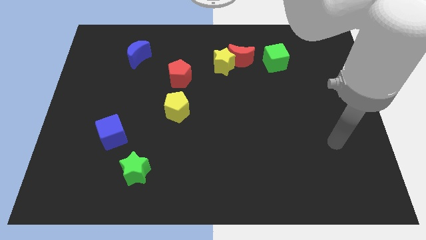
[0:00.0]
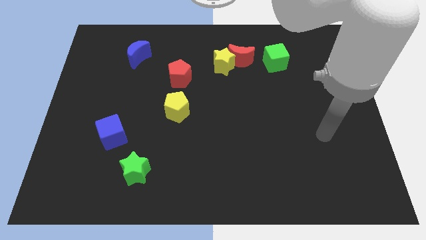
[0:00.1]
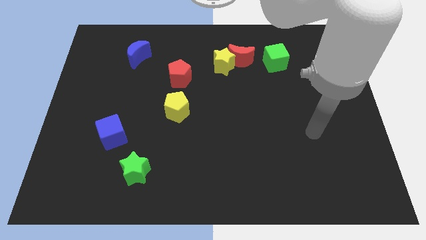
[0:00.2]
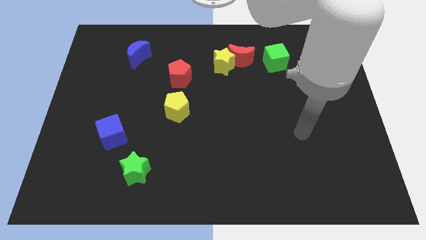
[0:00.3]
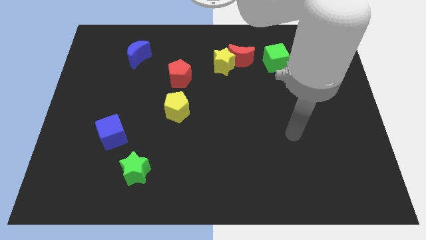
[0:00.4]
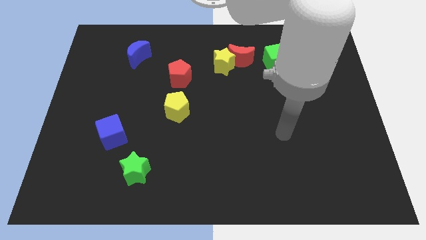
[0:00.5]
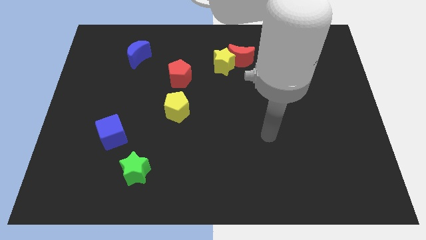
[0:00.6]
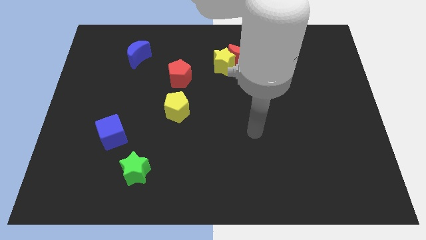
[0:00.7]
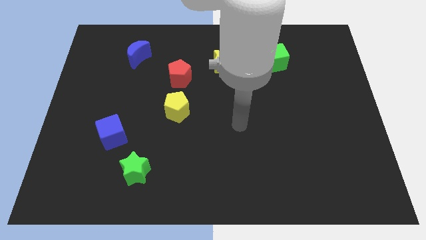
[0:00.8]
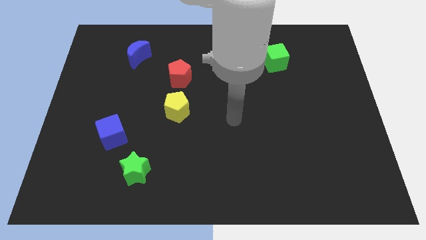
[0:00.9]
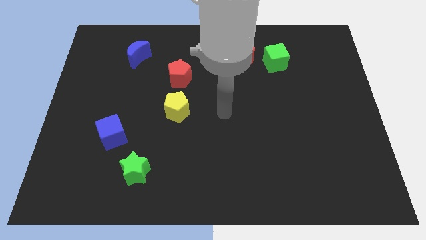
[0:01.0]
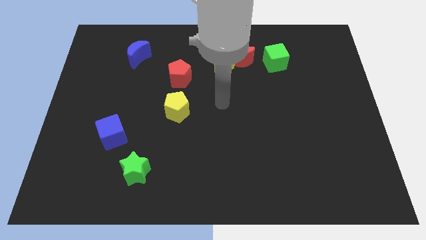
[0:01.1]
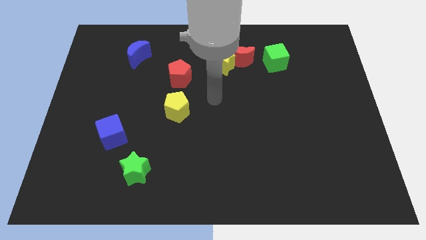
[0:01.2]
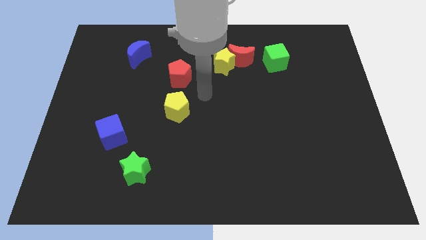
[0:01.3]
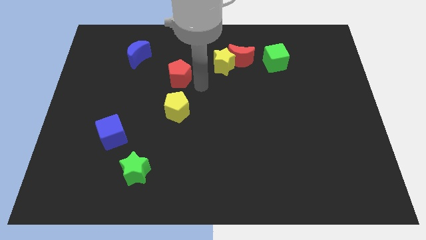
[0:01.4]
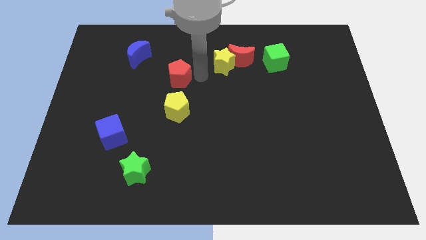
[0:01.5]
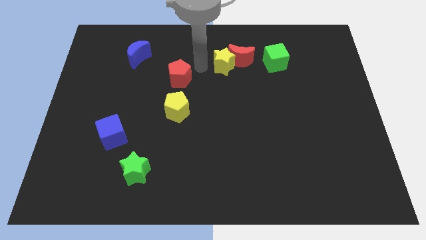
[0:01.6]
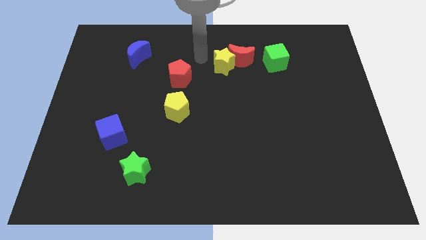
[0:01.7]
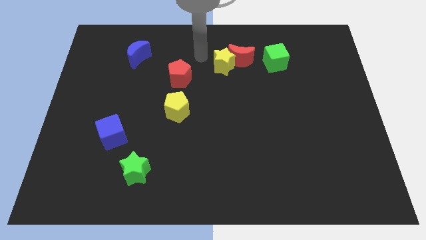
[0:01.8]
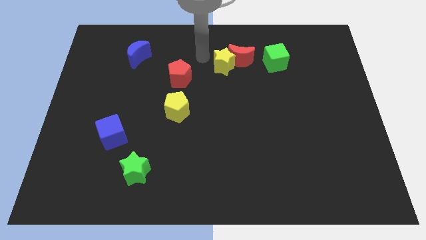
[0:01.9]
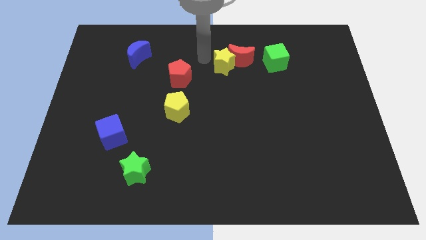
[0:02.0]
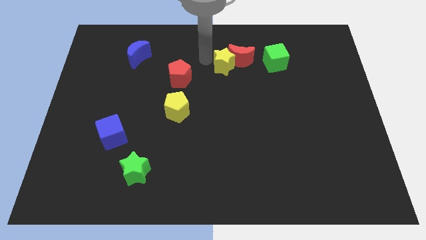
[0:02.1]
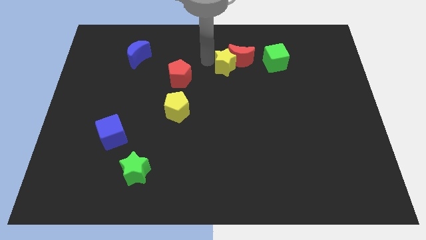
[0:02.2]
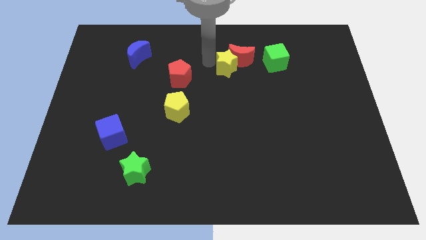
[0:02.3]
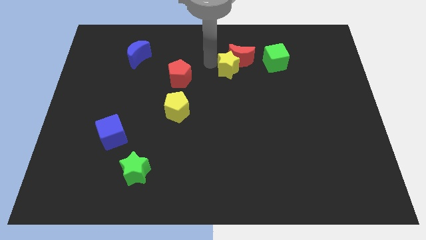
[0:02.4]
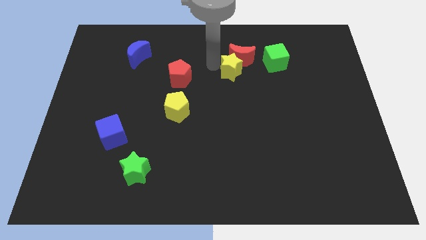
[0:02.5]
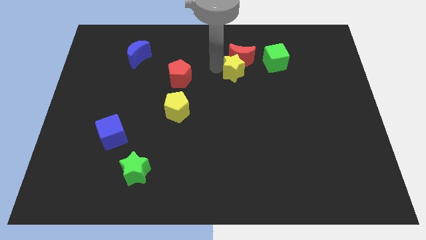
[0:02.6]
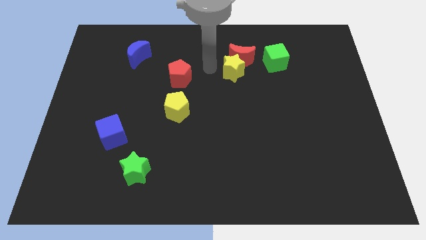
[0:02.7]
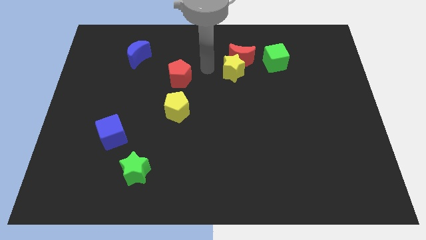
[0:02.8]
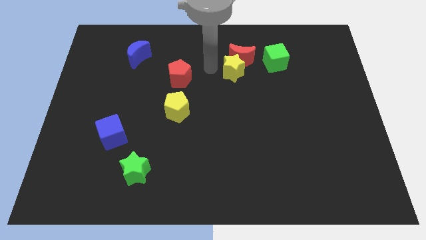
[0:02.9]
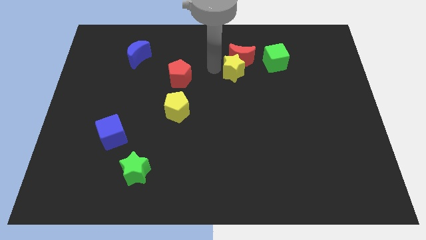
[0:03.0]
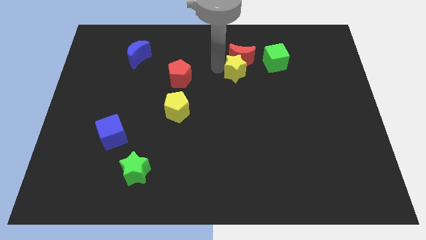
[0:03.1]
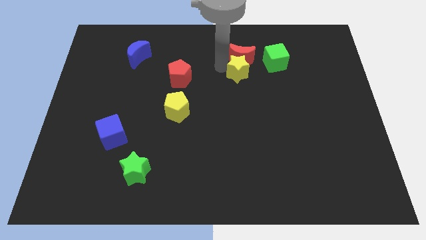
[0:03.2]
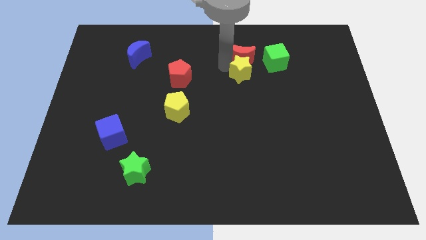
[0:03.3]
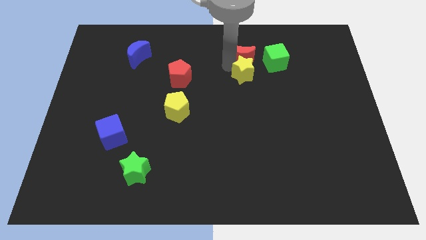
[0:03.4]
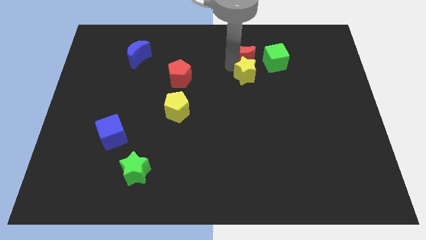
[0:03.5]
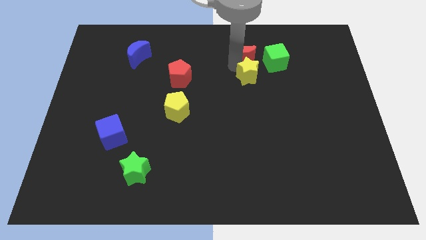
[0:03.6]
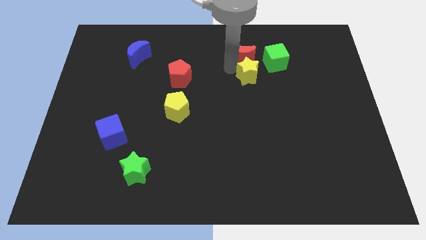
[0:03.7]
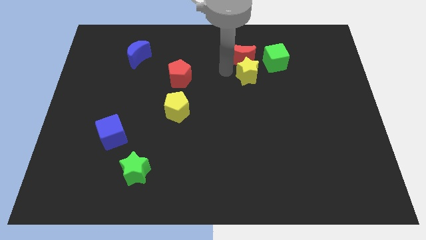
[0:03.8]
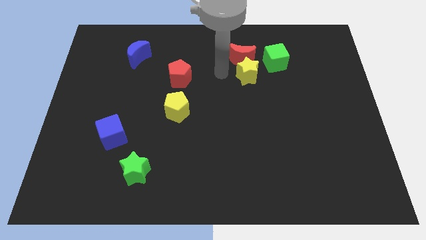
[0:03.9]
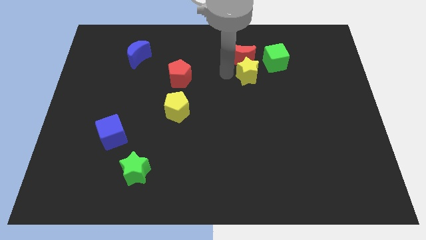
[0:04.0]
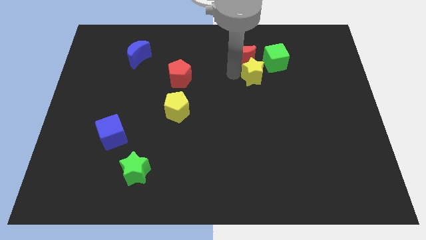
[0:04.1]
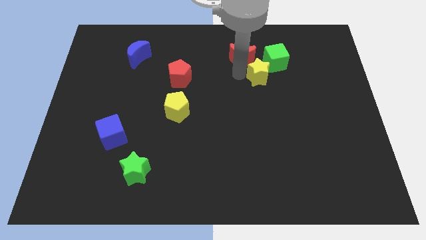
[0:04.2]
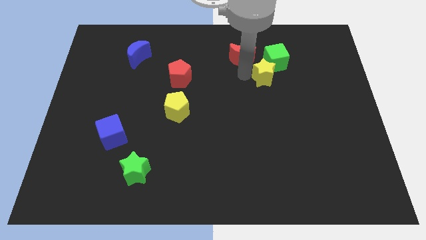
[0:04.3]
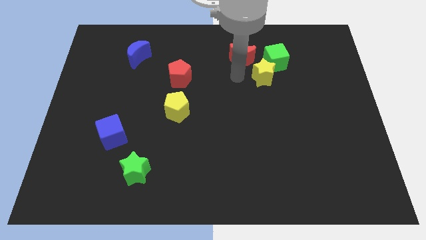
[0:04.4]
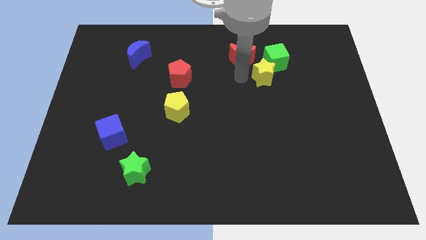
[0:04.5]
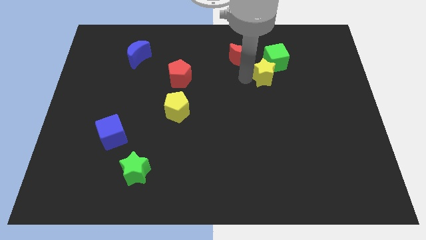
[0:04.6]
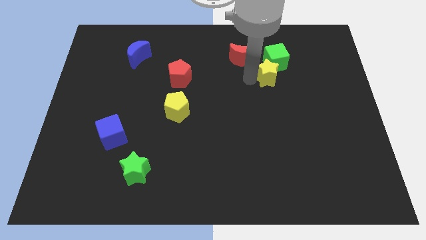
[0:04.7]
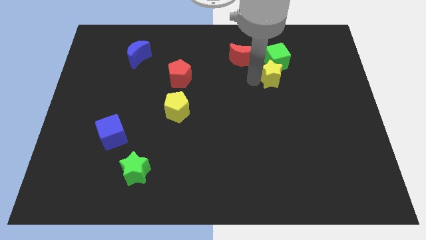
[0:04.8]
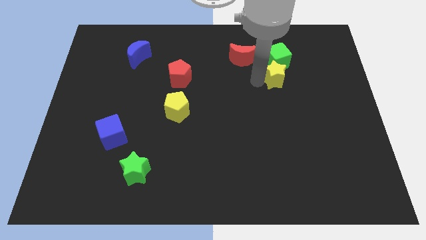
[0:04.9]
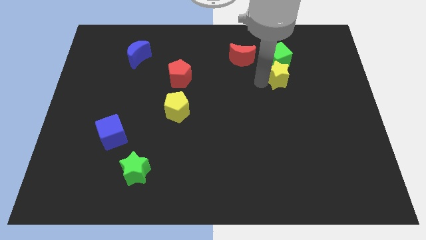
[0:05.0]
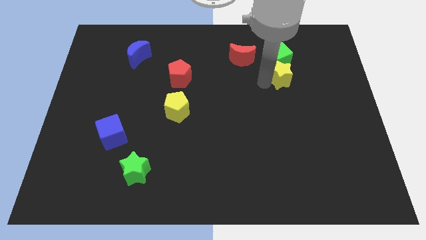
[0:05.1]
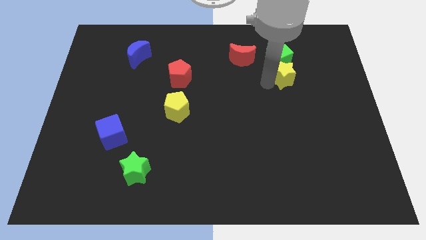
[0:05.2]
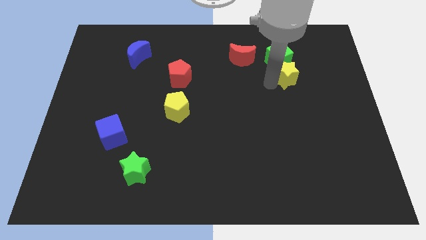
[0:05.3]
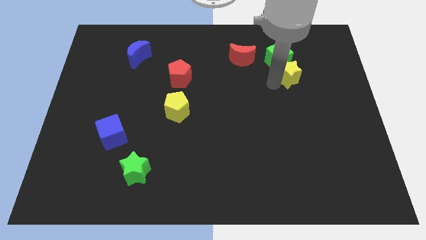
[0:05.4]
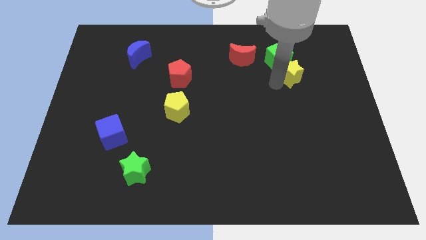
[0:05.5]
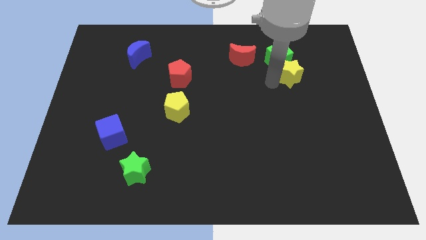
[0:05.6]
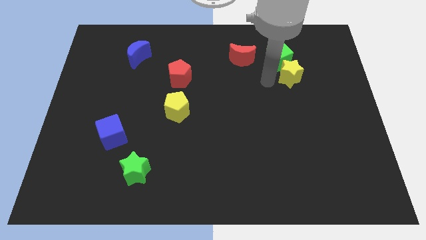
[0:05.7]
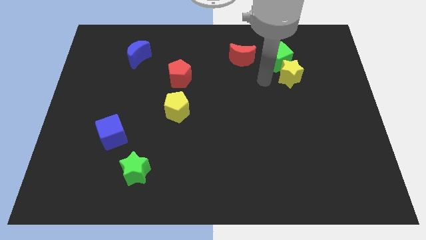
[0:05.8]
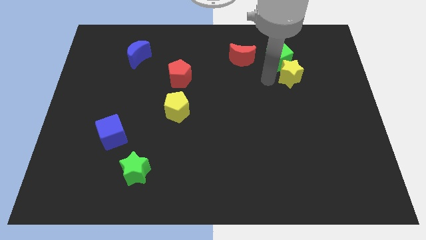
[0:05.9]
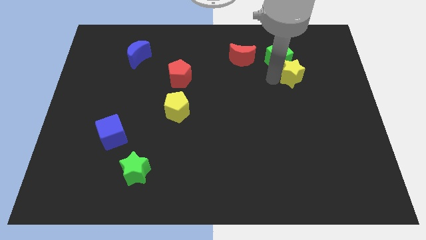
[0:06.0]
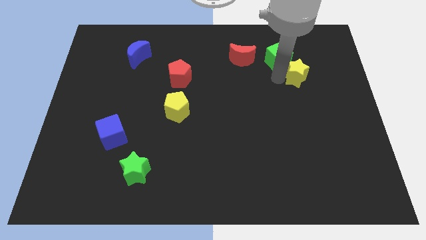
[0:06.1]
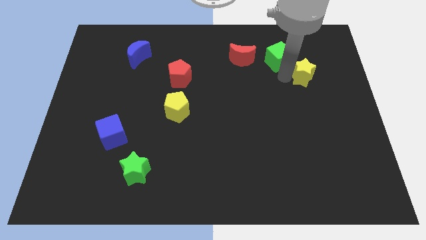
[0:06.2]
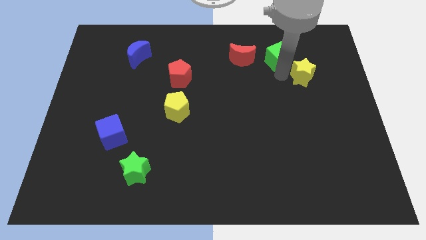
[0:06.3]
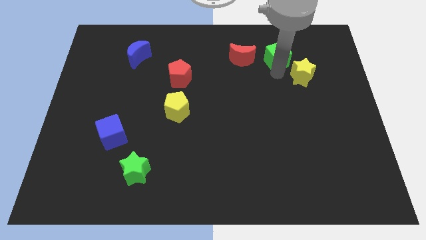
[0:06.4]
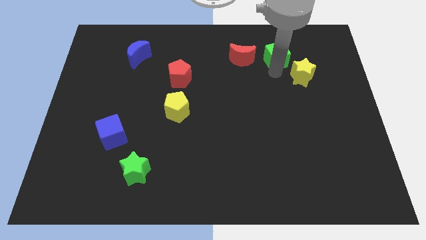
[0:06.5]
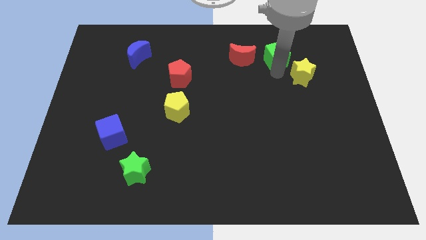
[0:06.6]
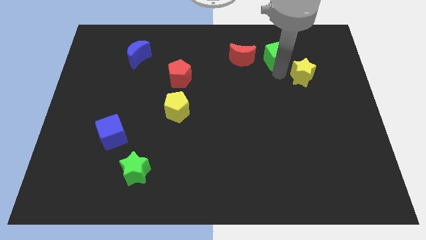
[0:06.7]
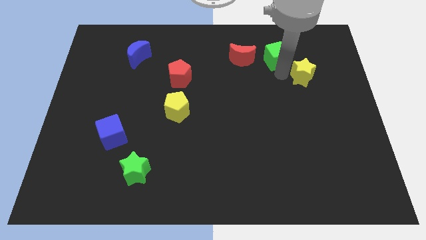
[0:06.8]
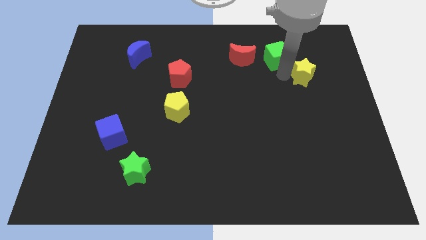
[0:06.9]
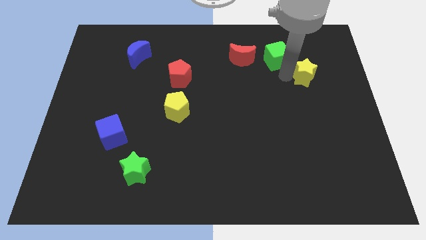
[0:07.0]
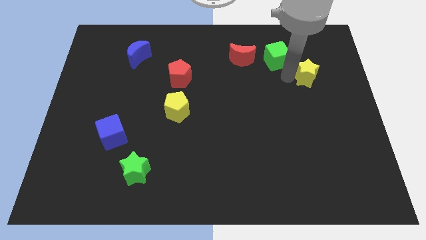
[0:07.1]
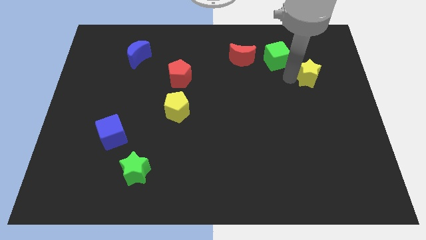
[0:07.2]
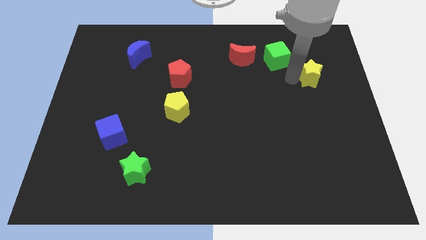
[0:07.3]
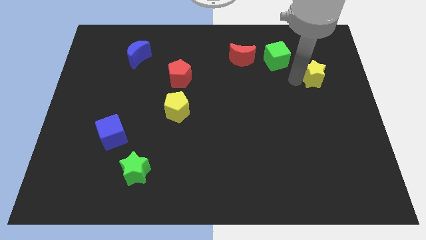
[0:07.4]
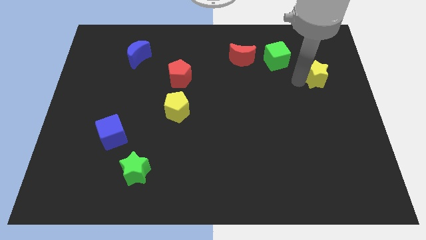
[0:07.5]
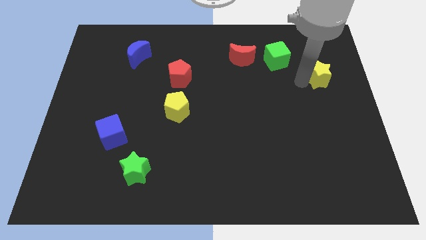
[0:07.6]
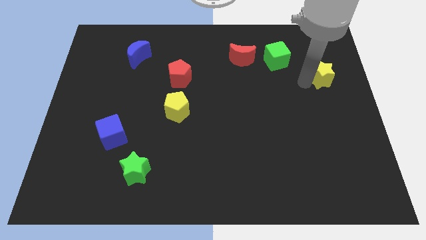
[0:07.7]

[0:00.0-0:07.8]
slide the yellow star to the center right

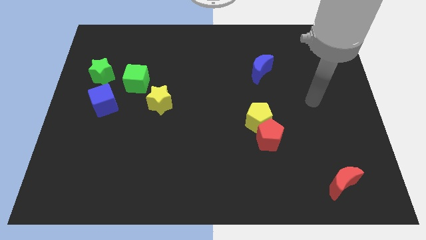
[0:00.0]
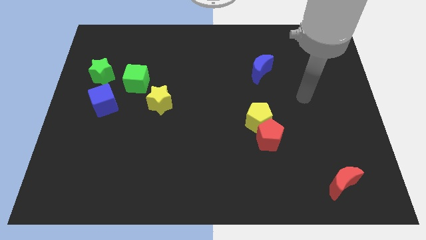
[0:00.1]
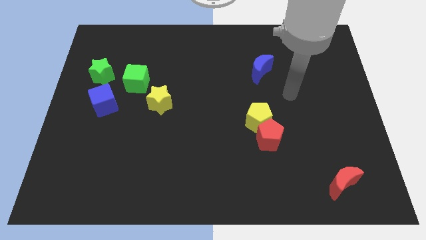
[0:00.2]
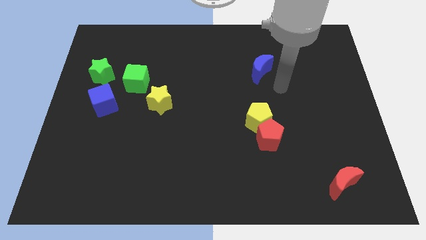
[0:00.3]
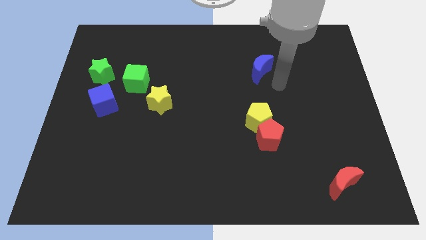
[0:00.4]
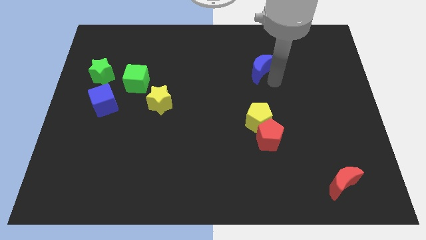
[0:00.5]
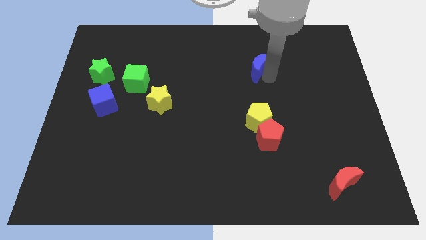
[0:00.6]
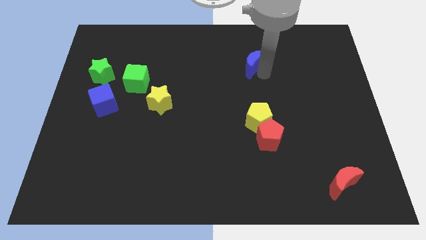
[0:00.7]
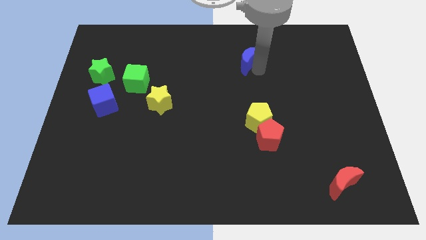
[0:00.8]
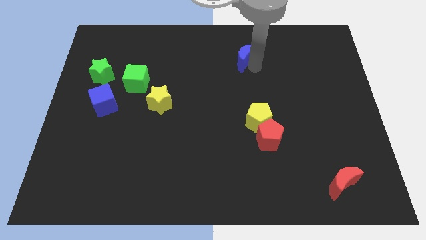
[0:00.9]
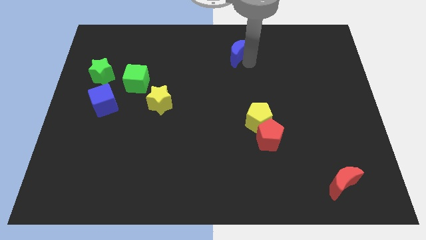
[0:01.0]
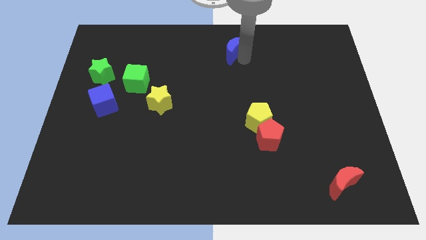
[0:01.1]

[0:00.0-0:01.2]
put the blue moon to the top
